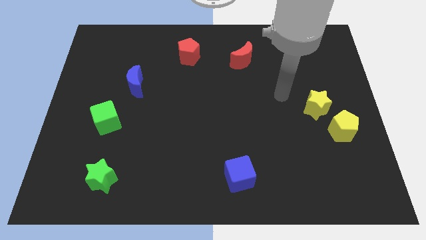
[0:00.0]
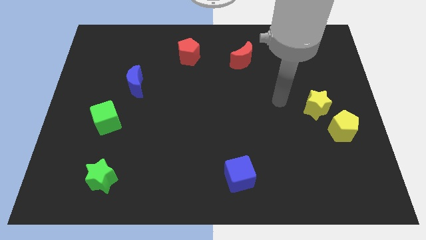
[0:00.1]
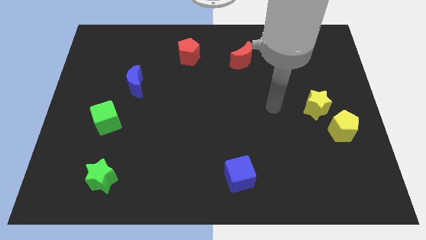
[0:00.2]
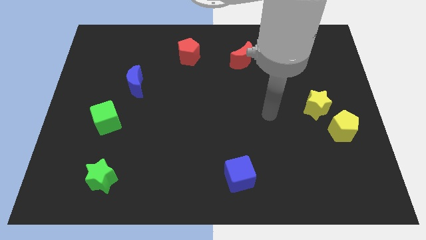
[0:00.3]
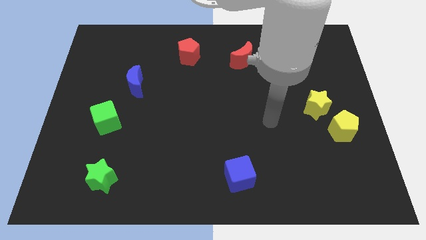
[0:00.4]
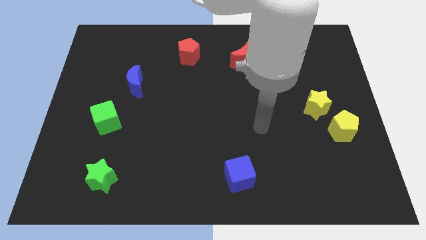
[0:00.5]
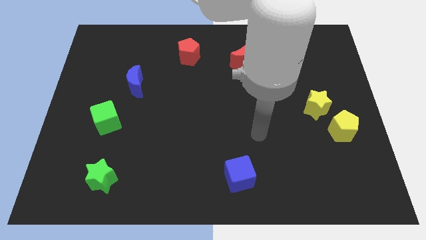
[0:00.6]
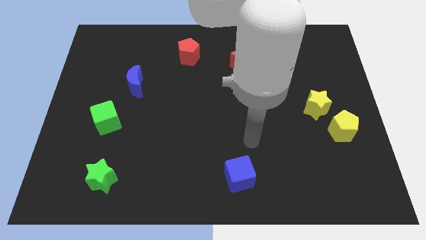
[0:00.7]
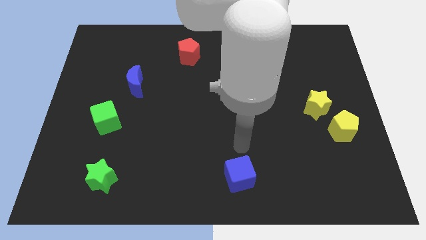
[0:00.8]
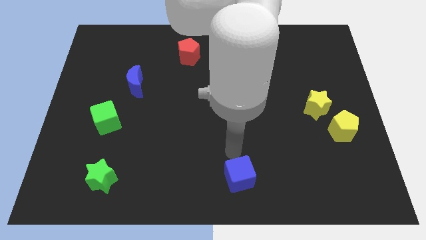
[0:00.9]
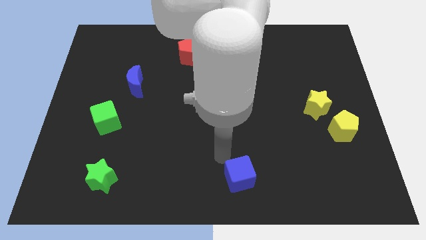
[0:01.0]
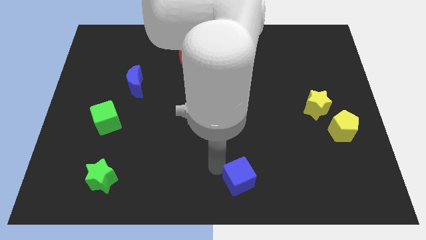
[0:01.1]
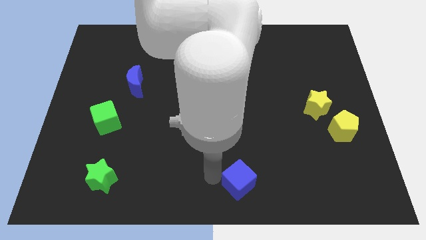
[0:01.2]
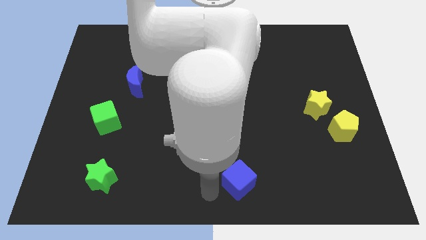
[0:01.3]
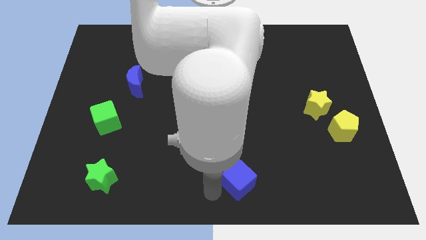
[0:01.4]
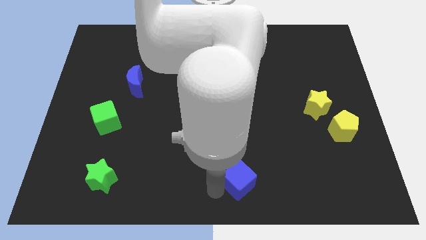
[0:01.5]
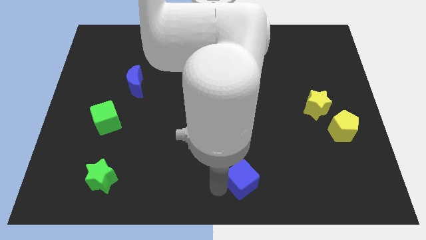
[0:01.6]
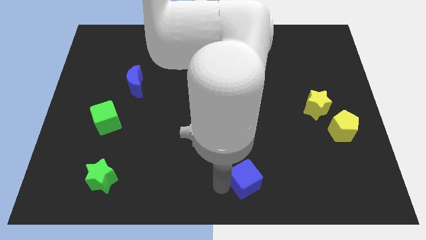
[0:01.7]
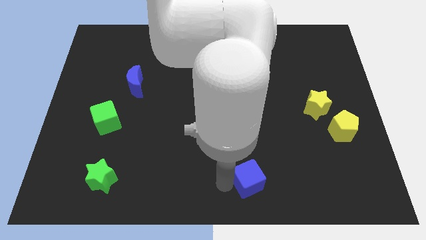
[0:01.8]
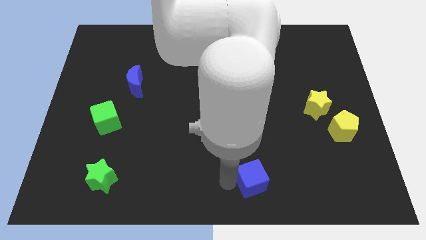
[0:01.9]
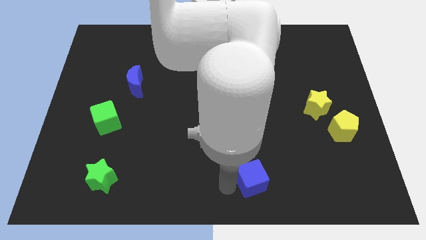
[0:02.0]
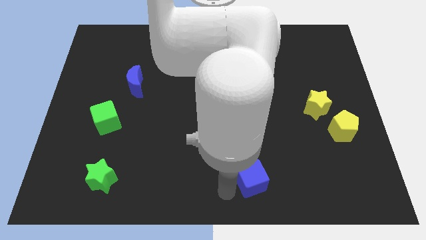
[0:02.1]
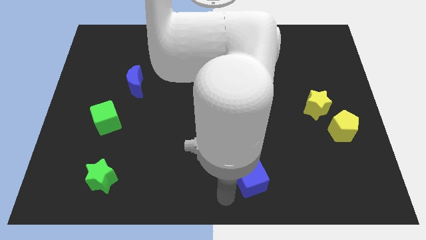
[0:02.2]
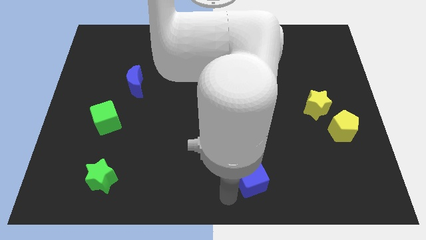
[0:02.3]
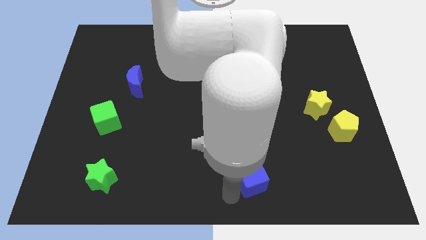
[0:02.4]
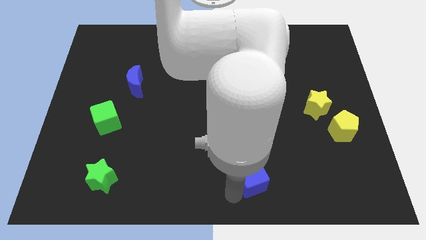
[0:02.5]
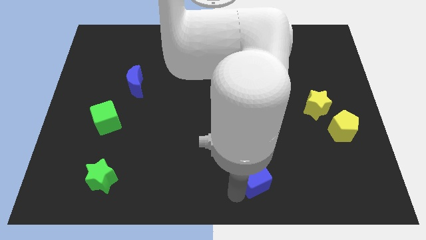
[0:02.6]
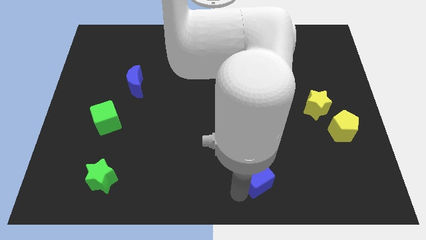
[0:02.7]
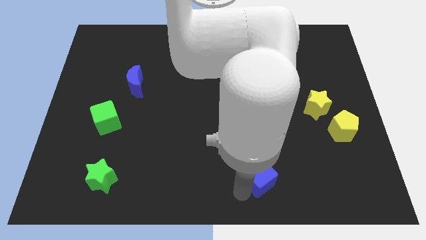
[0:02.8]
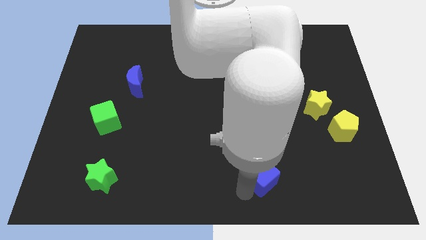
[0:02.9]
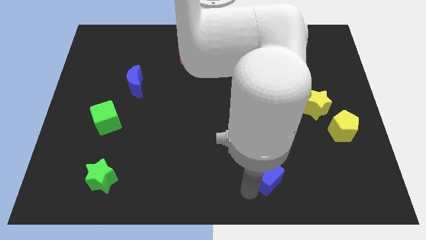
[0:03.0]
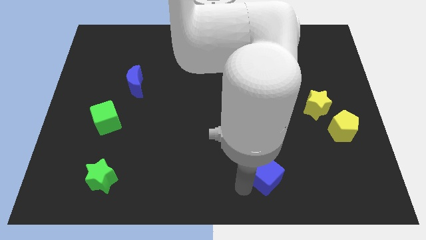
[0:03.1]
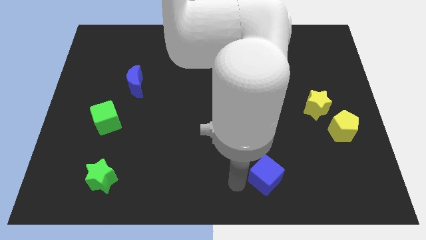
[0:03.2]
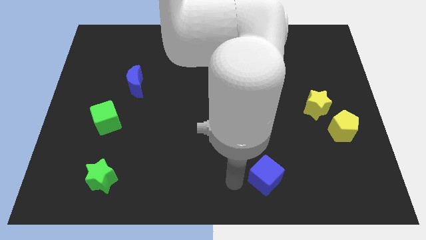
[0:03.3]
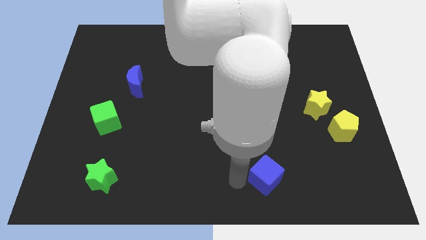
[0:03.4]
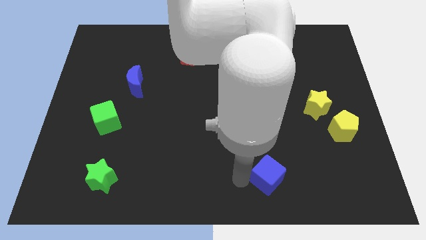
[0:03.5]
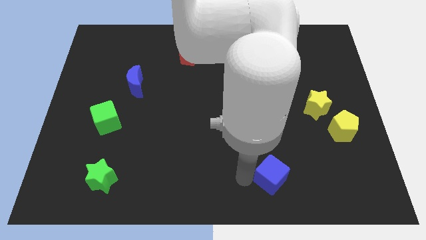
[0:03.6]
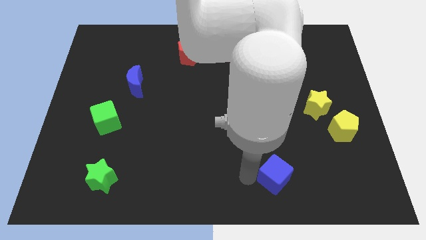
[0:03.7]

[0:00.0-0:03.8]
move the blue cube right somewhat

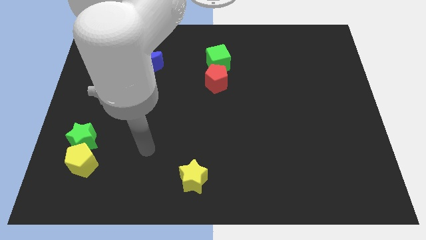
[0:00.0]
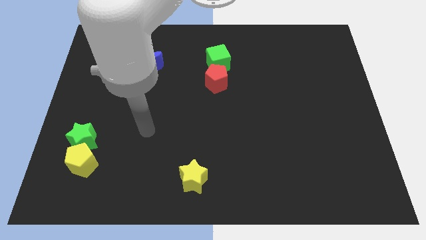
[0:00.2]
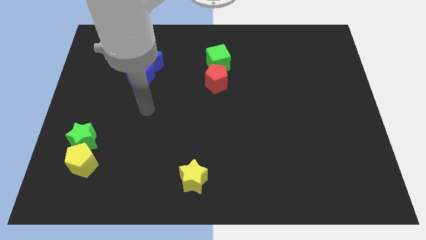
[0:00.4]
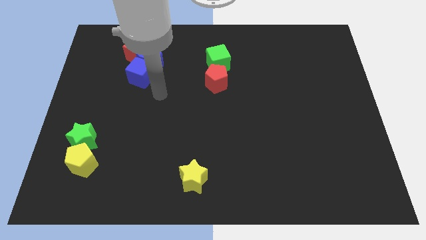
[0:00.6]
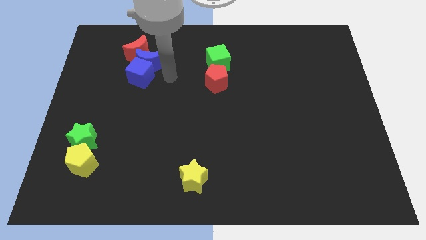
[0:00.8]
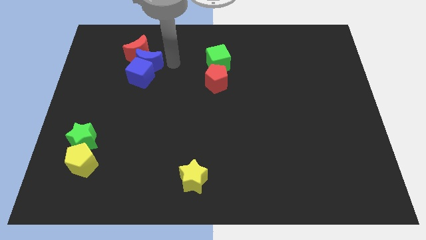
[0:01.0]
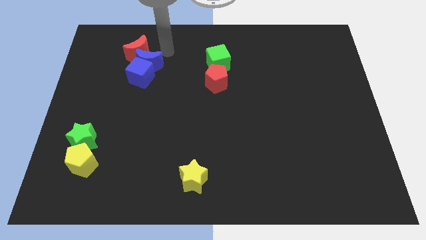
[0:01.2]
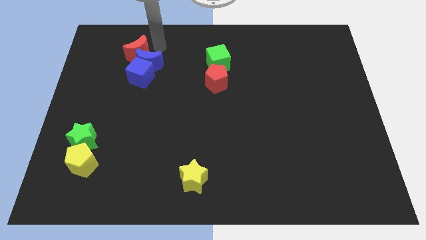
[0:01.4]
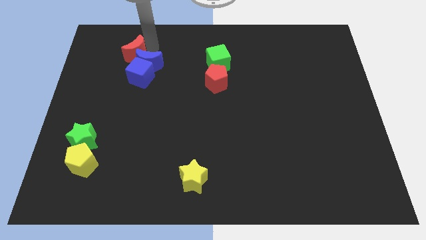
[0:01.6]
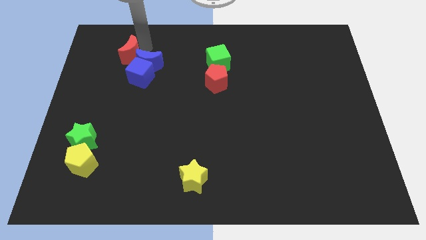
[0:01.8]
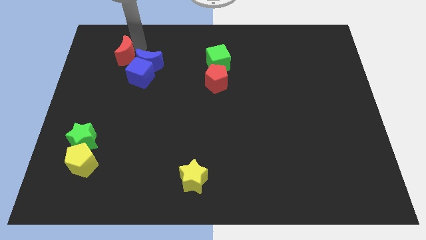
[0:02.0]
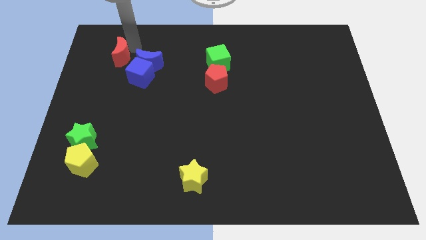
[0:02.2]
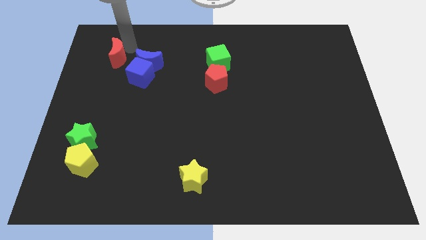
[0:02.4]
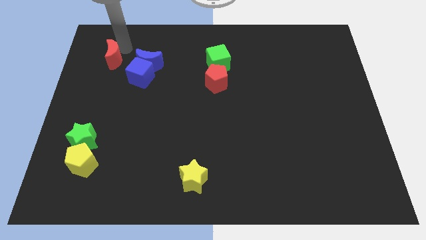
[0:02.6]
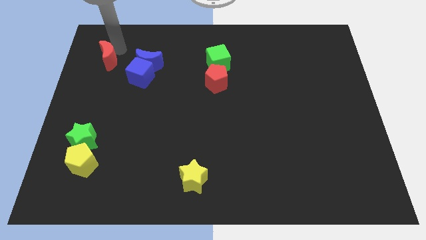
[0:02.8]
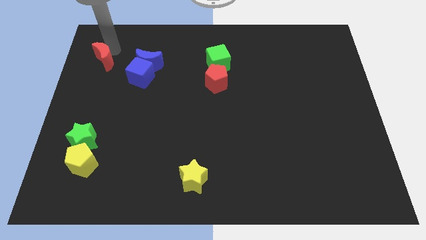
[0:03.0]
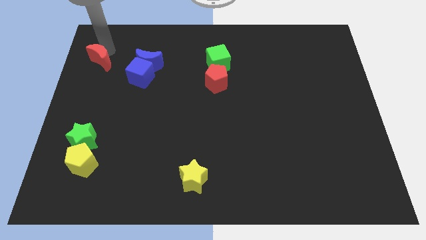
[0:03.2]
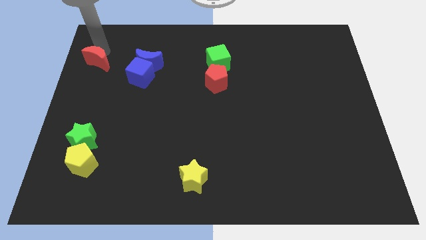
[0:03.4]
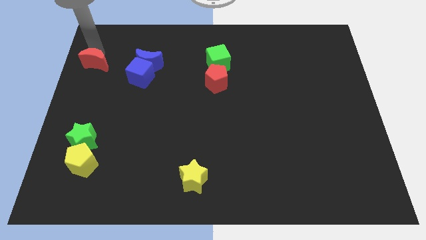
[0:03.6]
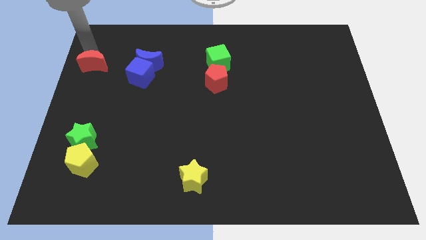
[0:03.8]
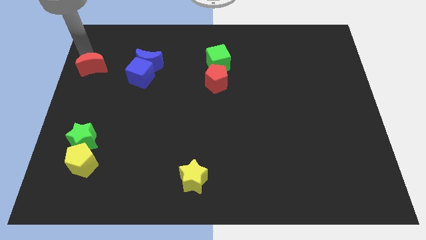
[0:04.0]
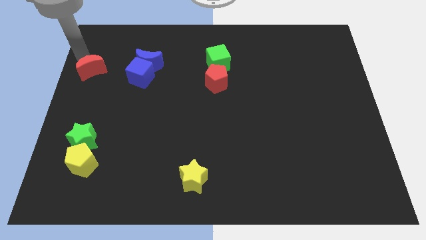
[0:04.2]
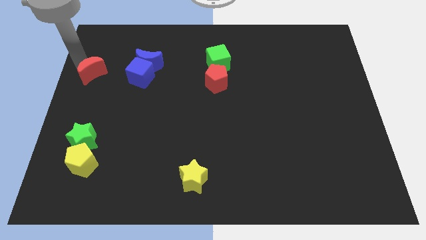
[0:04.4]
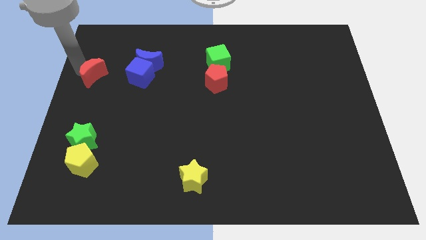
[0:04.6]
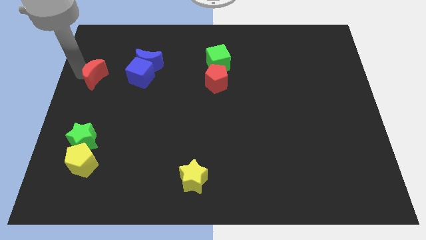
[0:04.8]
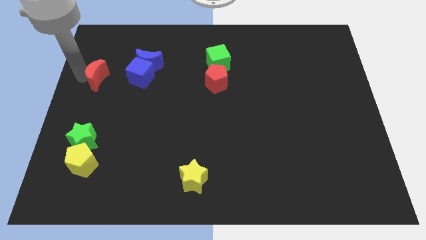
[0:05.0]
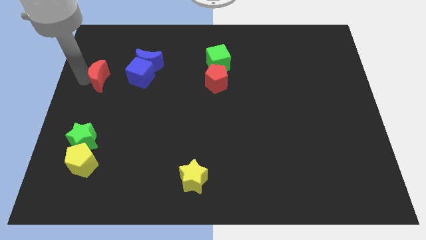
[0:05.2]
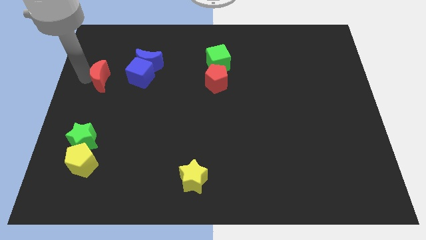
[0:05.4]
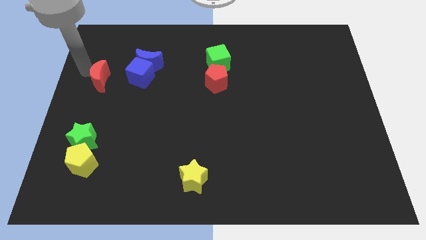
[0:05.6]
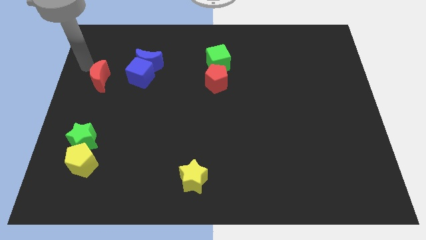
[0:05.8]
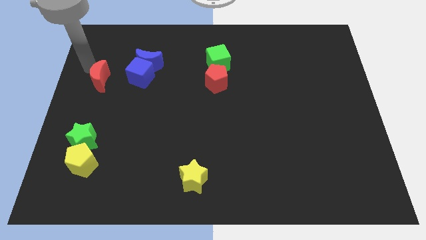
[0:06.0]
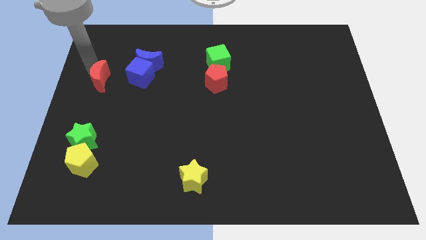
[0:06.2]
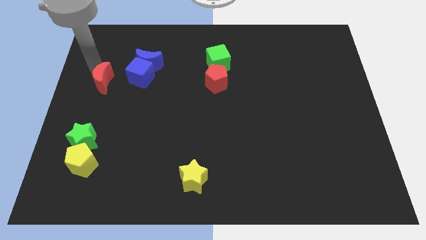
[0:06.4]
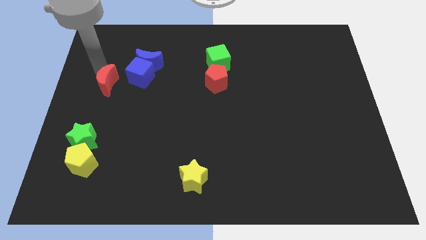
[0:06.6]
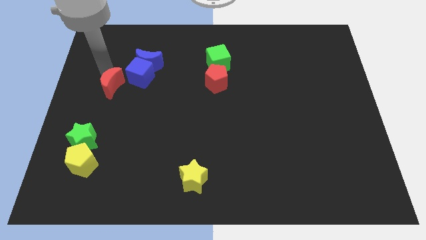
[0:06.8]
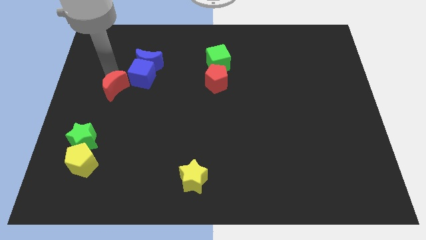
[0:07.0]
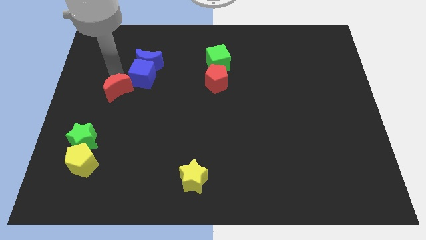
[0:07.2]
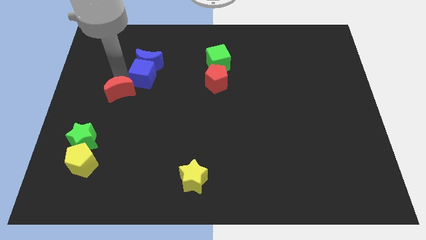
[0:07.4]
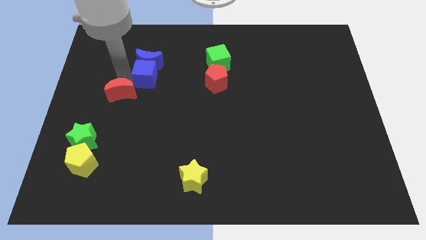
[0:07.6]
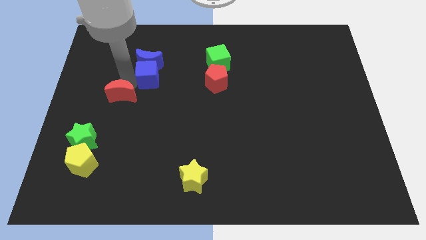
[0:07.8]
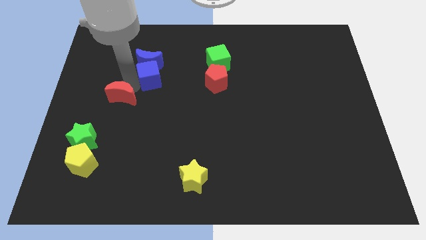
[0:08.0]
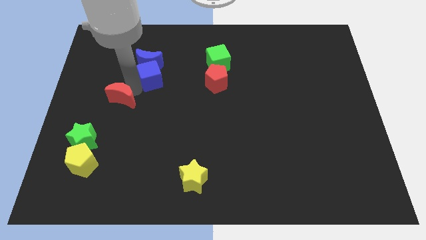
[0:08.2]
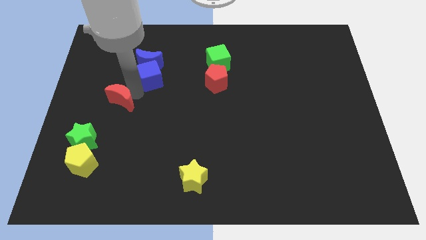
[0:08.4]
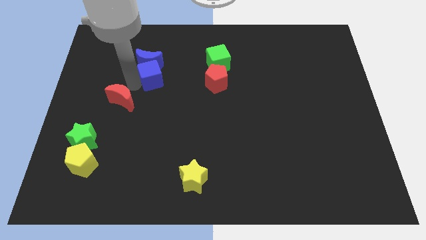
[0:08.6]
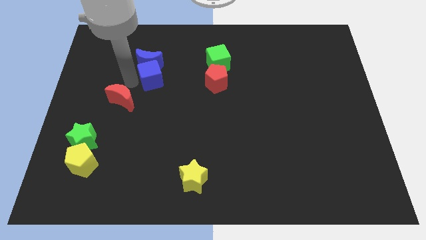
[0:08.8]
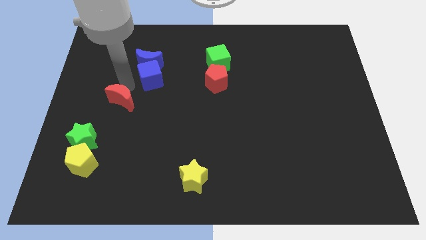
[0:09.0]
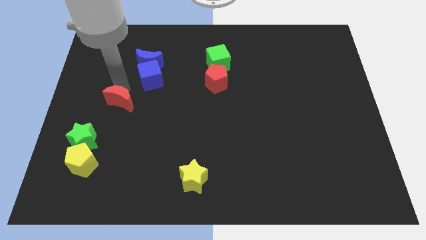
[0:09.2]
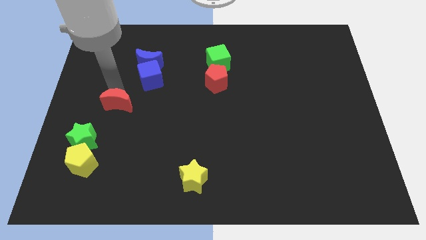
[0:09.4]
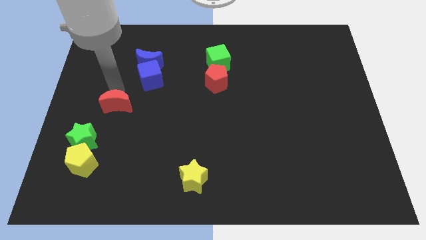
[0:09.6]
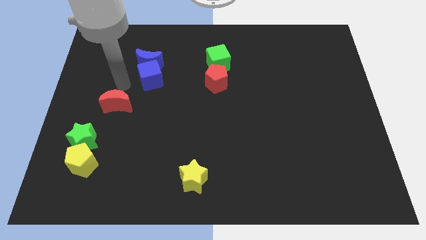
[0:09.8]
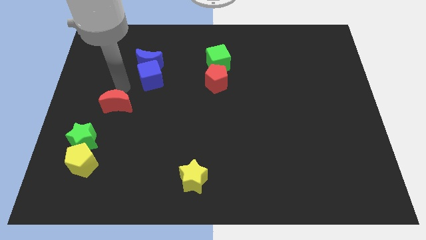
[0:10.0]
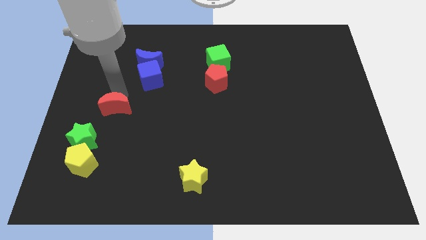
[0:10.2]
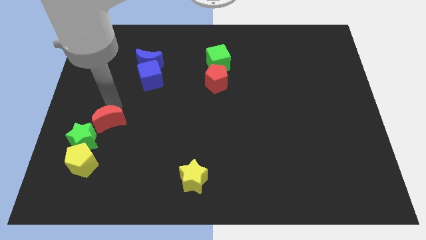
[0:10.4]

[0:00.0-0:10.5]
push the red moon downwards
